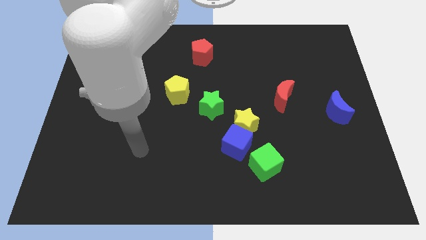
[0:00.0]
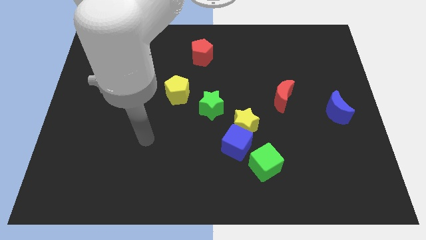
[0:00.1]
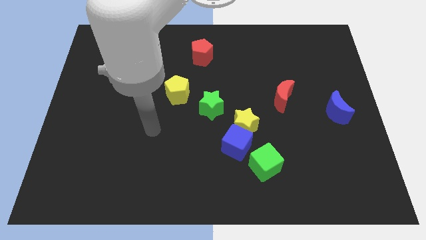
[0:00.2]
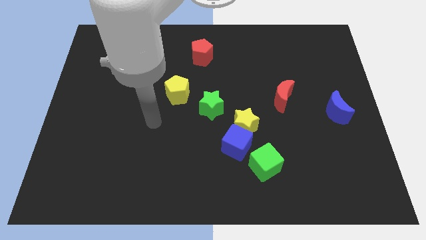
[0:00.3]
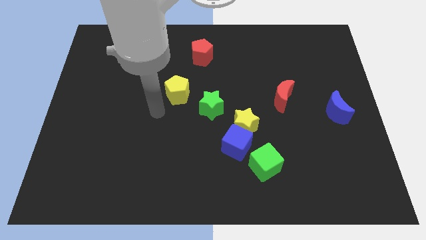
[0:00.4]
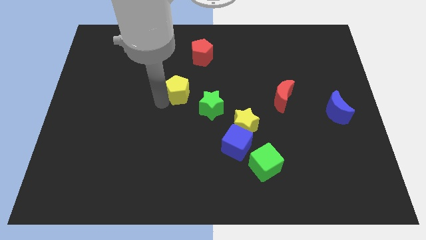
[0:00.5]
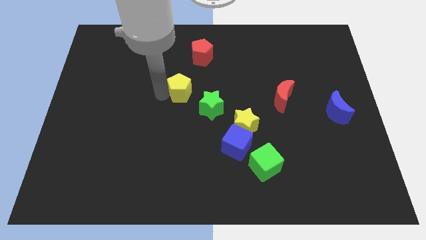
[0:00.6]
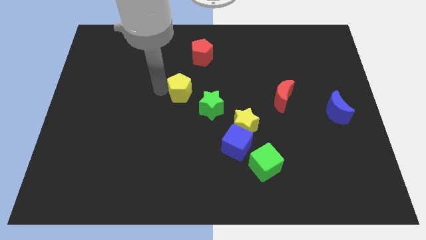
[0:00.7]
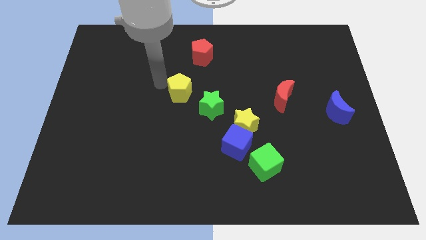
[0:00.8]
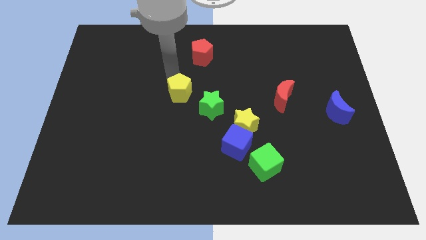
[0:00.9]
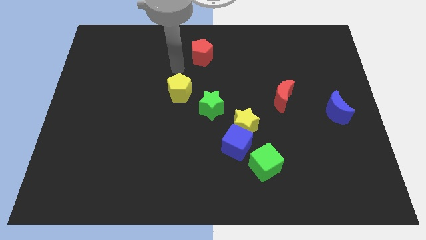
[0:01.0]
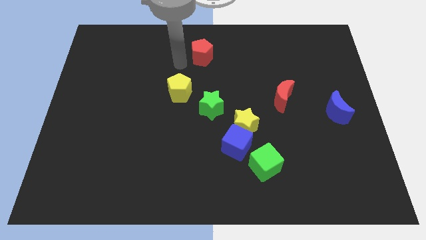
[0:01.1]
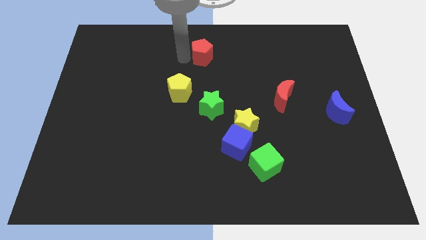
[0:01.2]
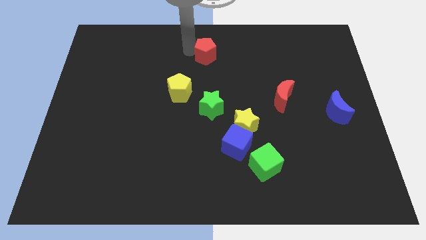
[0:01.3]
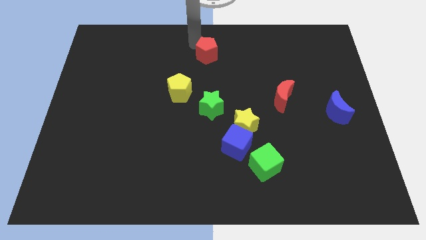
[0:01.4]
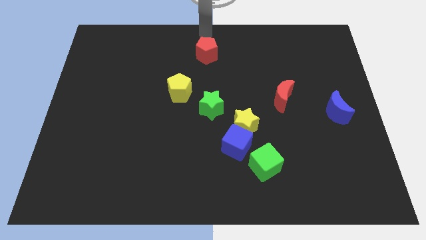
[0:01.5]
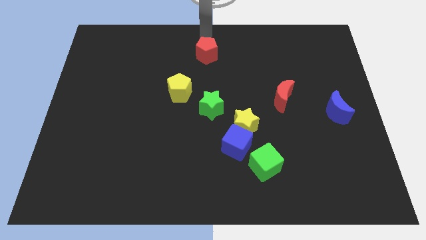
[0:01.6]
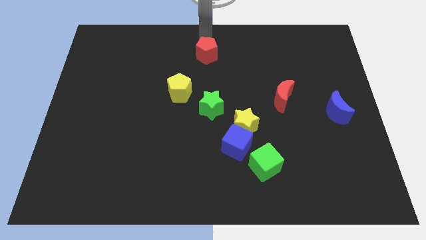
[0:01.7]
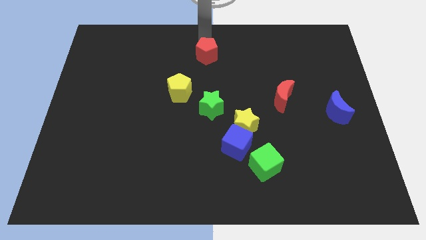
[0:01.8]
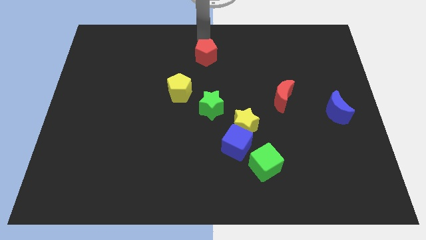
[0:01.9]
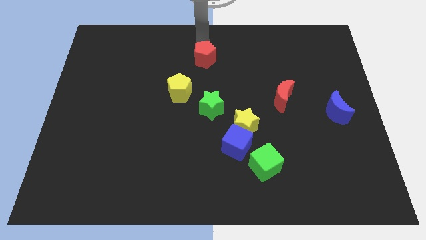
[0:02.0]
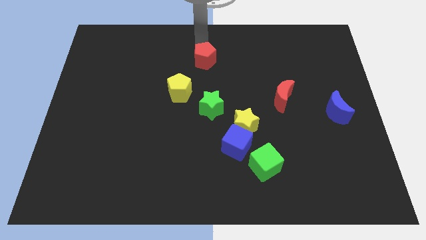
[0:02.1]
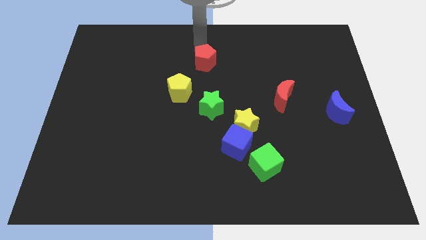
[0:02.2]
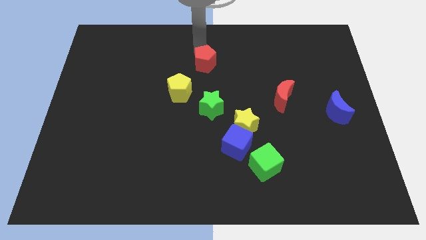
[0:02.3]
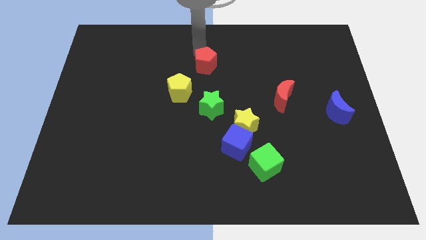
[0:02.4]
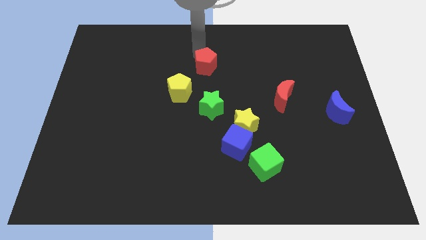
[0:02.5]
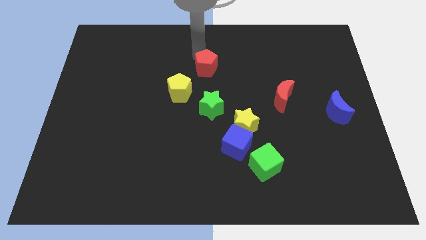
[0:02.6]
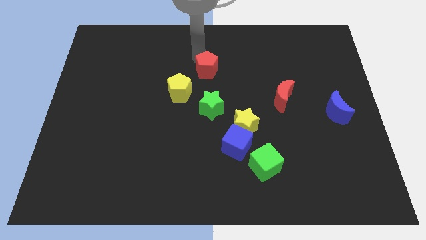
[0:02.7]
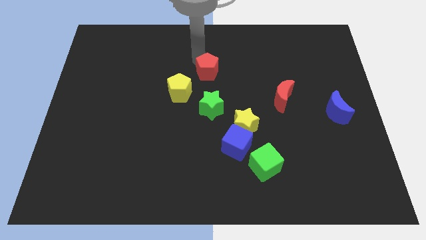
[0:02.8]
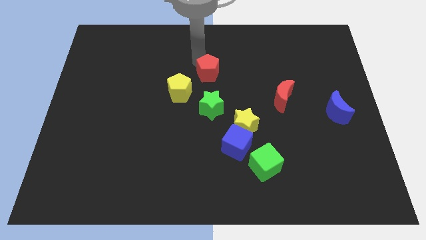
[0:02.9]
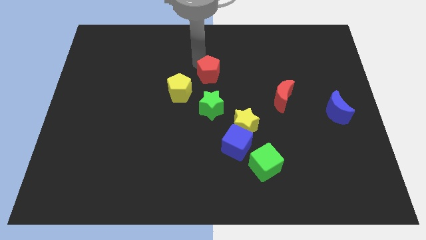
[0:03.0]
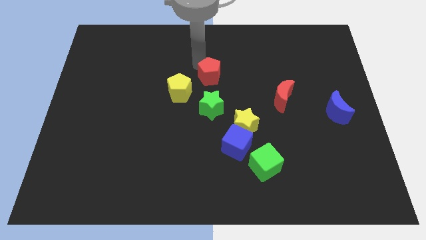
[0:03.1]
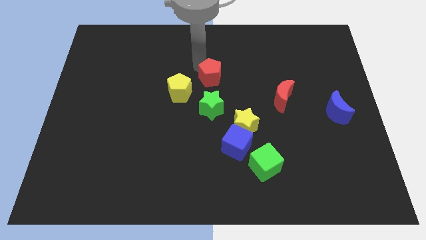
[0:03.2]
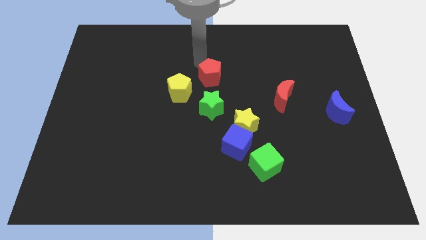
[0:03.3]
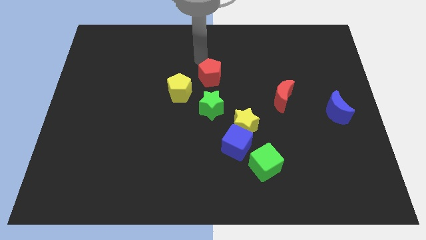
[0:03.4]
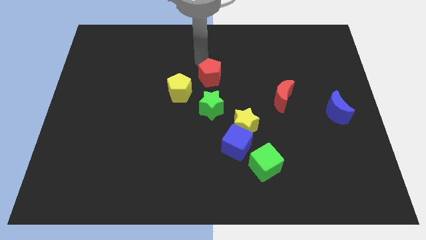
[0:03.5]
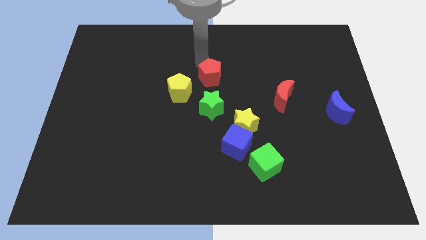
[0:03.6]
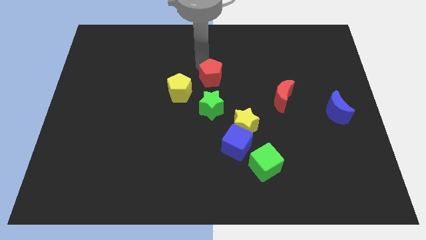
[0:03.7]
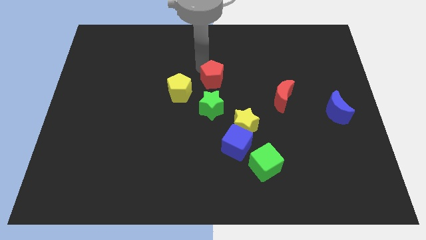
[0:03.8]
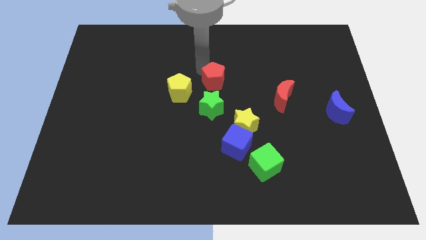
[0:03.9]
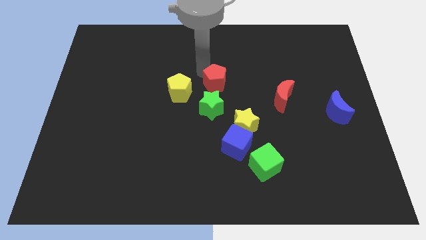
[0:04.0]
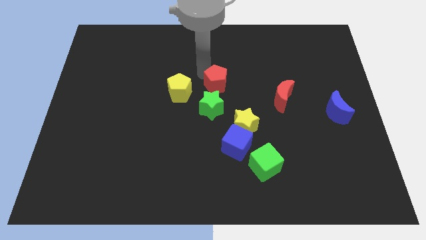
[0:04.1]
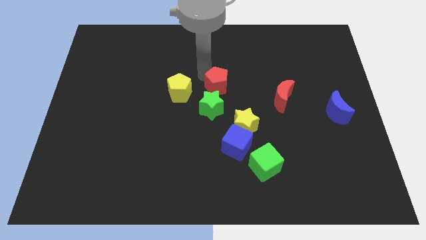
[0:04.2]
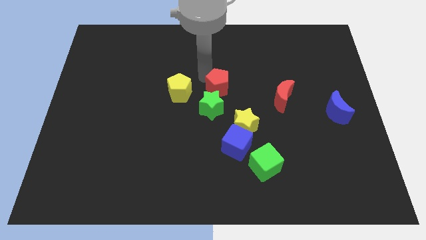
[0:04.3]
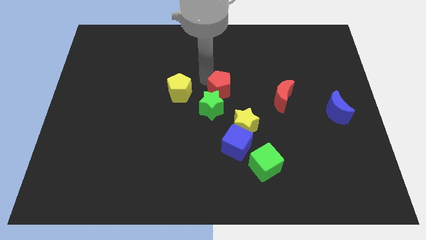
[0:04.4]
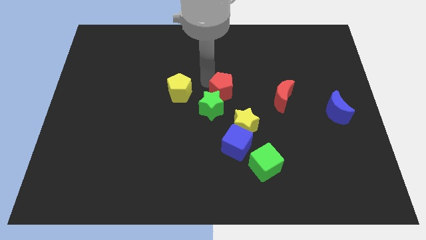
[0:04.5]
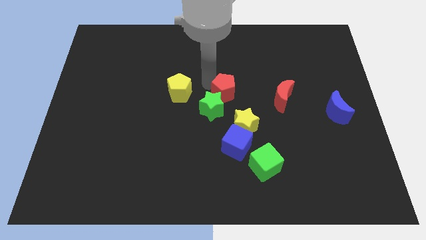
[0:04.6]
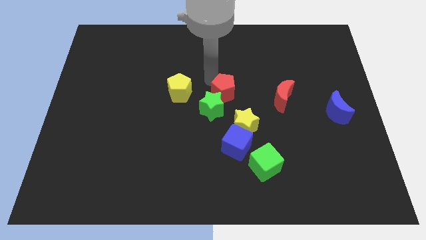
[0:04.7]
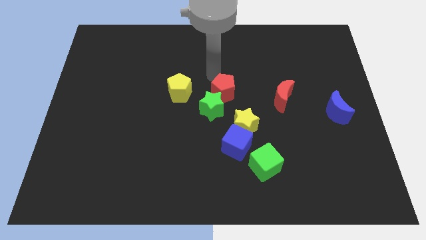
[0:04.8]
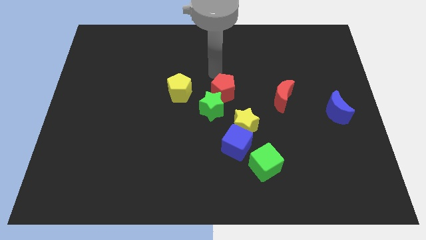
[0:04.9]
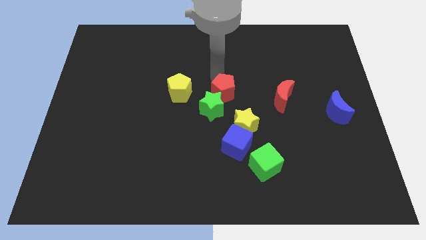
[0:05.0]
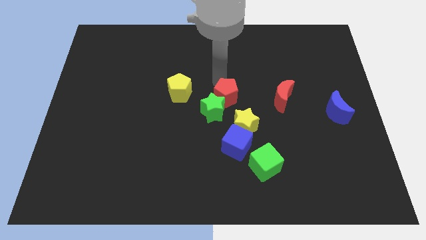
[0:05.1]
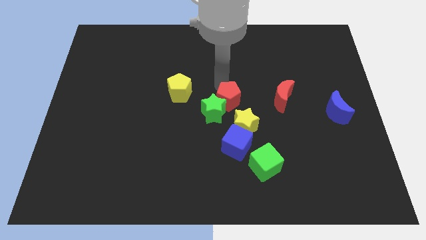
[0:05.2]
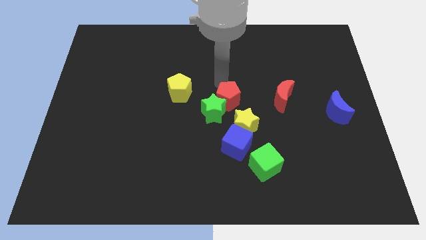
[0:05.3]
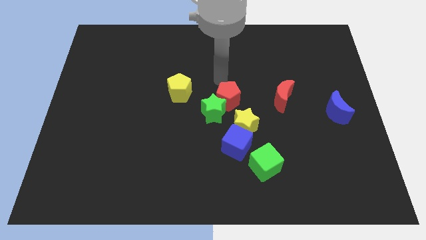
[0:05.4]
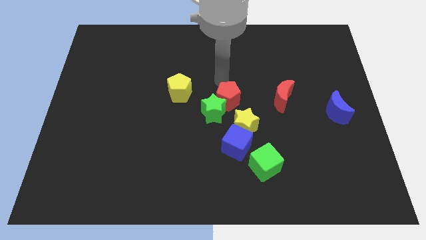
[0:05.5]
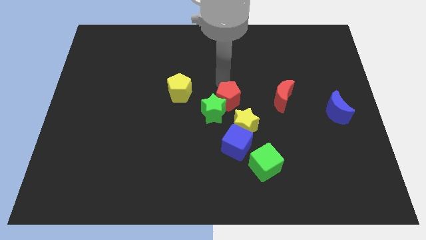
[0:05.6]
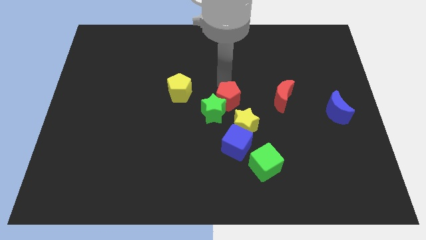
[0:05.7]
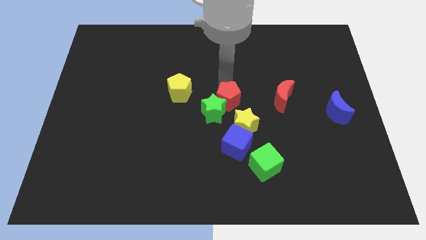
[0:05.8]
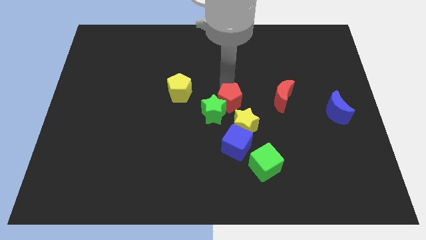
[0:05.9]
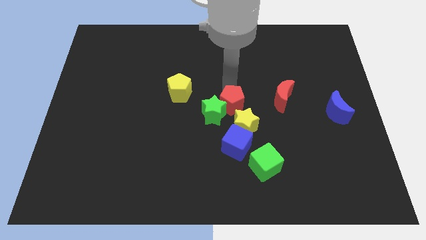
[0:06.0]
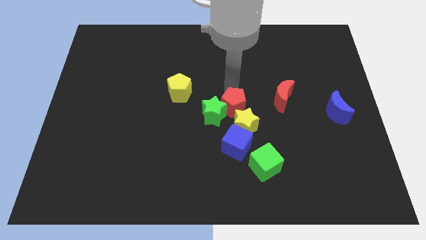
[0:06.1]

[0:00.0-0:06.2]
put the red pentagon close to the yellow star

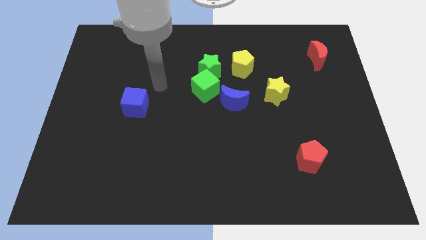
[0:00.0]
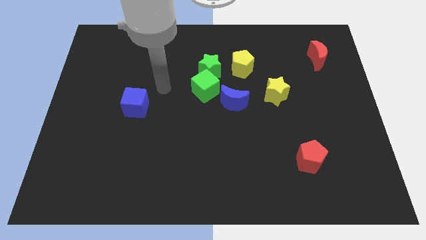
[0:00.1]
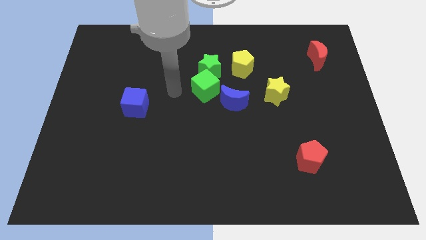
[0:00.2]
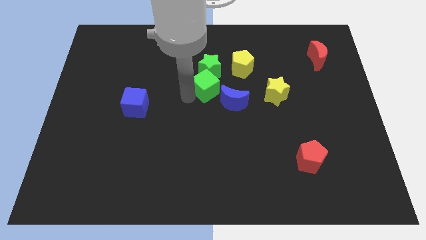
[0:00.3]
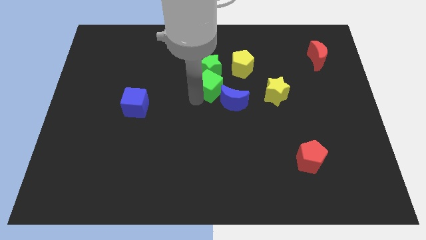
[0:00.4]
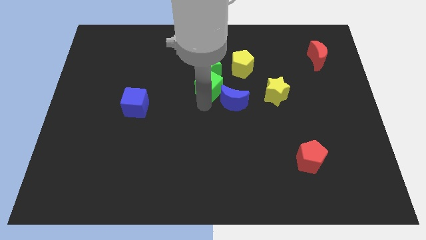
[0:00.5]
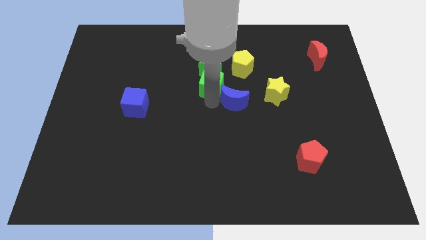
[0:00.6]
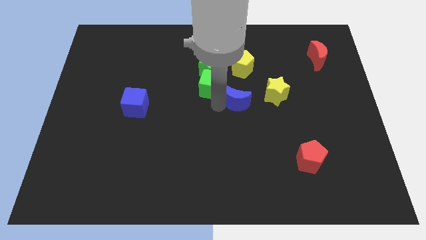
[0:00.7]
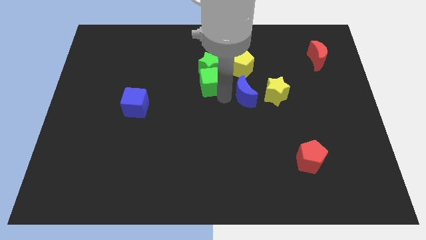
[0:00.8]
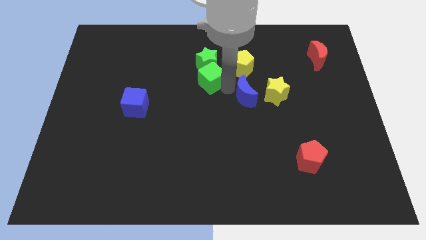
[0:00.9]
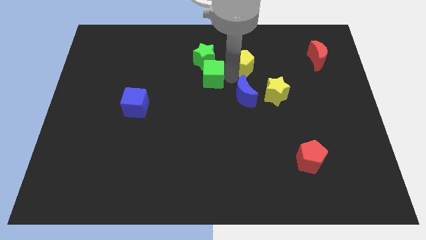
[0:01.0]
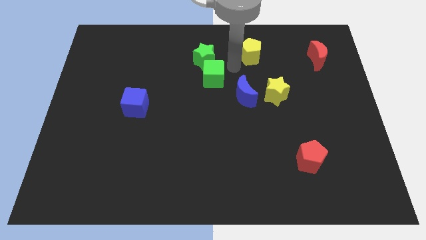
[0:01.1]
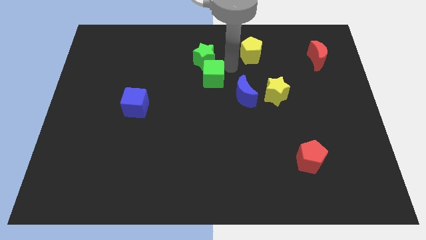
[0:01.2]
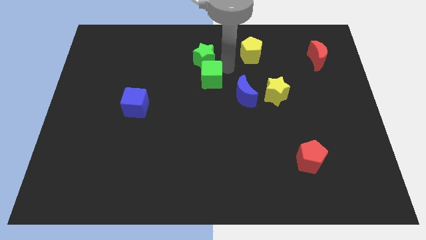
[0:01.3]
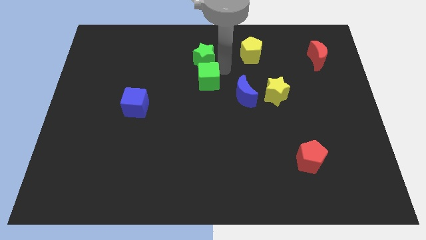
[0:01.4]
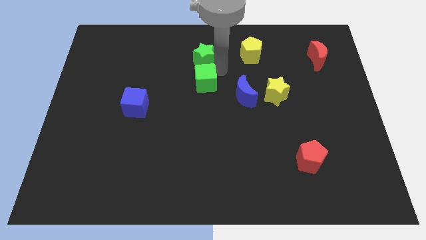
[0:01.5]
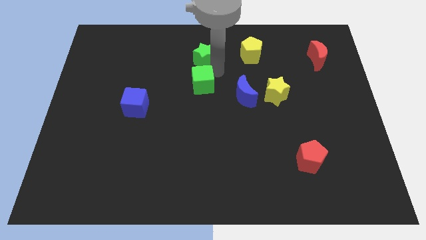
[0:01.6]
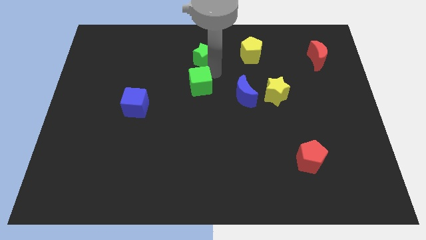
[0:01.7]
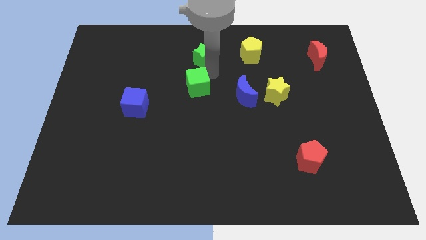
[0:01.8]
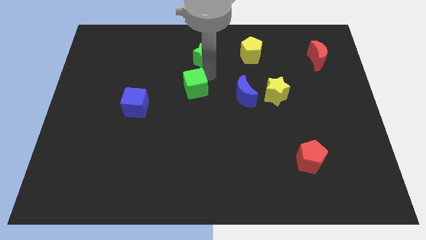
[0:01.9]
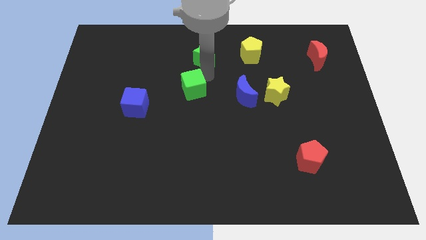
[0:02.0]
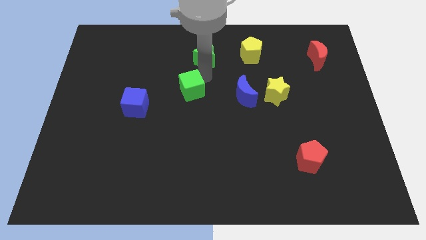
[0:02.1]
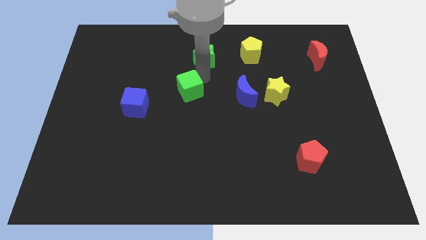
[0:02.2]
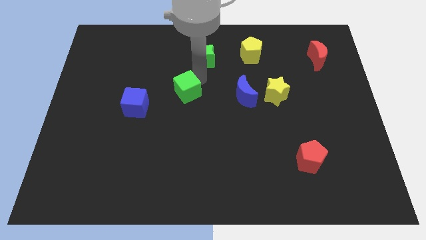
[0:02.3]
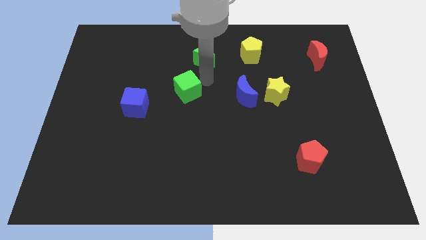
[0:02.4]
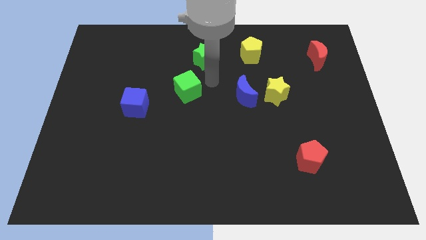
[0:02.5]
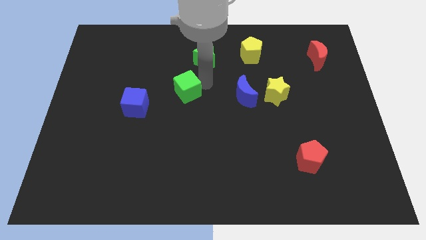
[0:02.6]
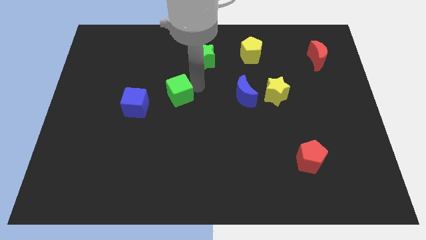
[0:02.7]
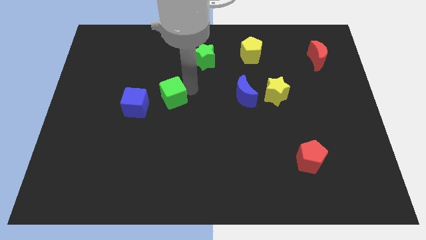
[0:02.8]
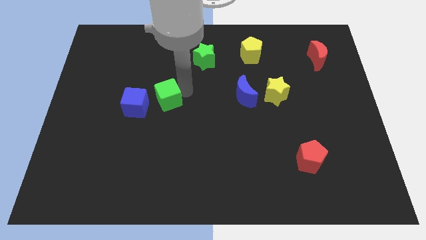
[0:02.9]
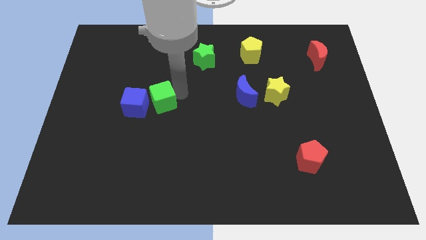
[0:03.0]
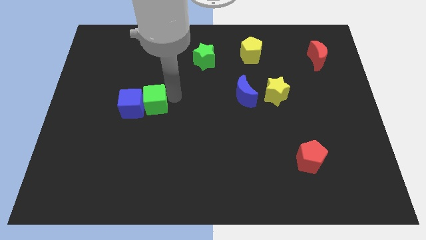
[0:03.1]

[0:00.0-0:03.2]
move the green cube next to the blue cube
